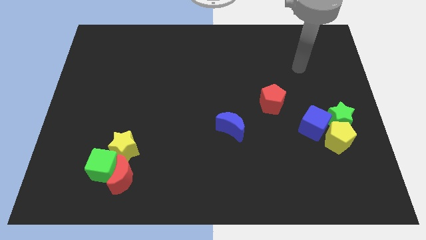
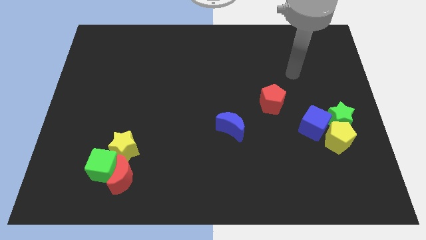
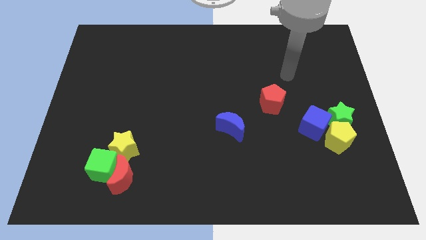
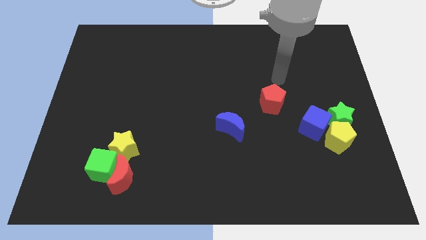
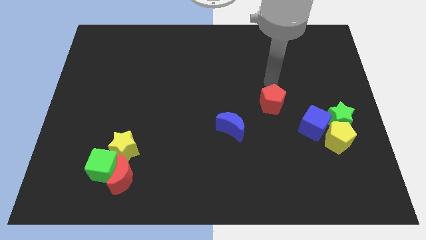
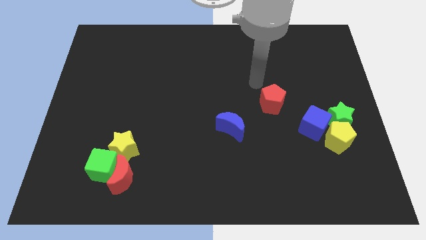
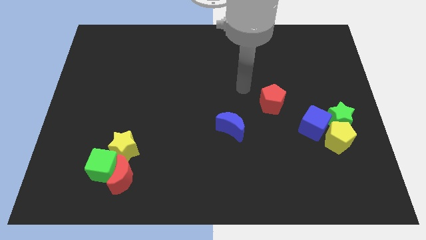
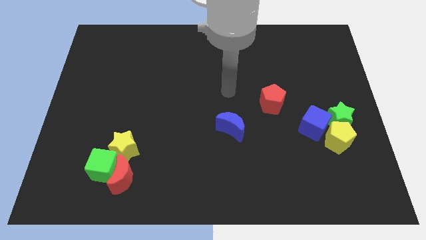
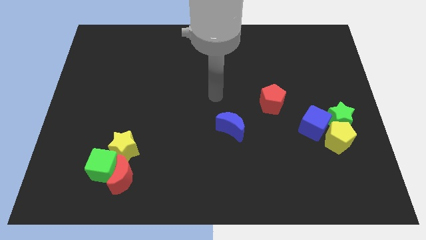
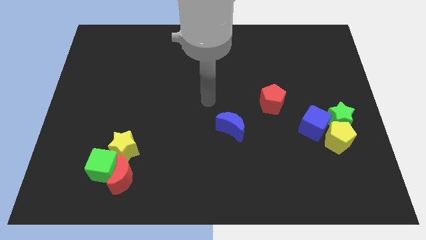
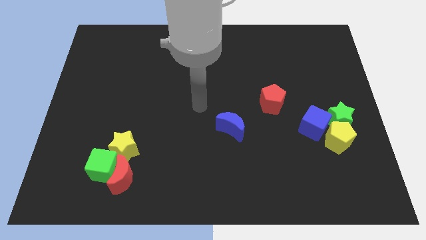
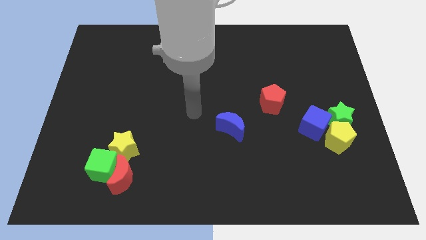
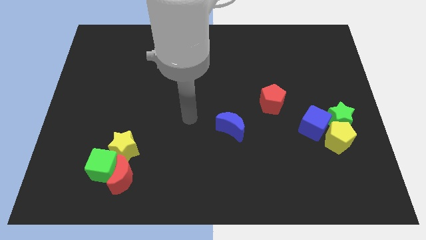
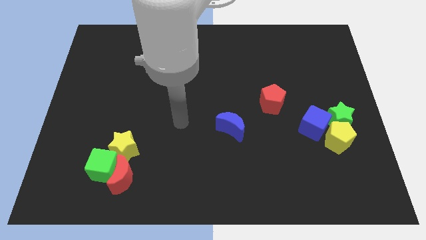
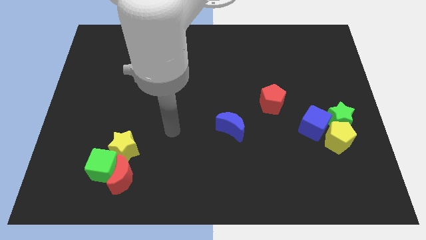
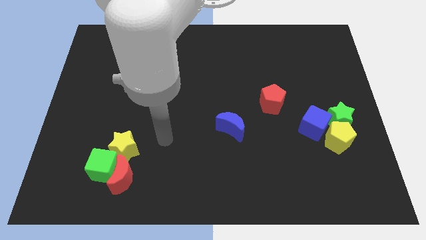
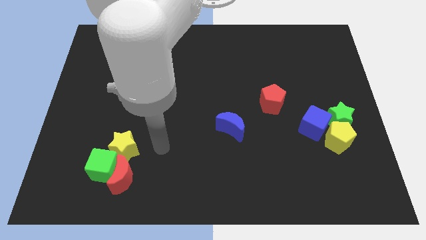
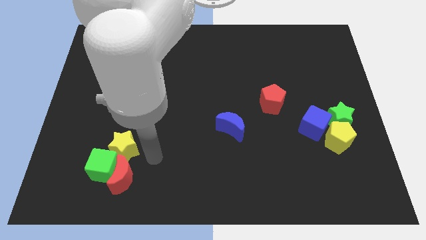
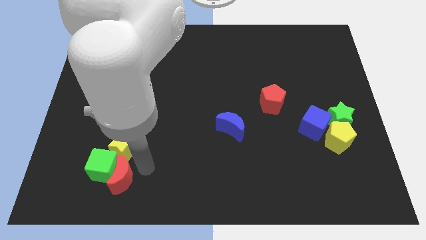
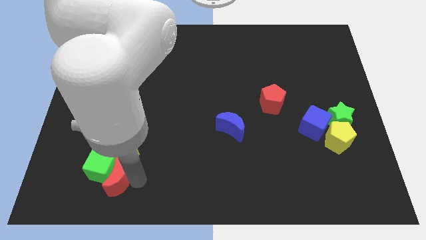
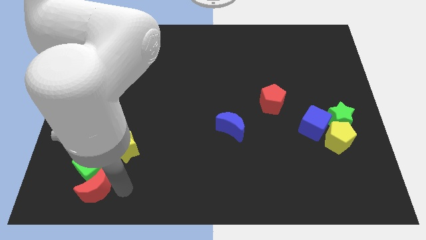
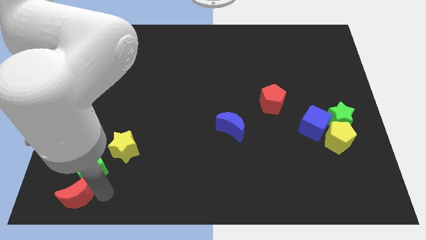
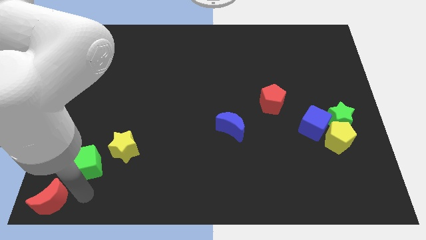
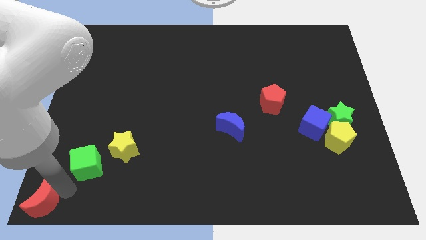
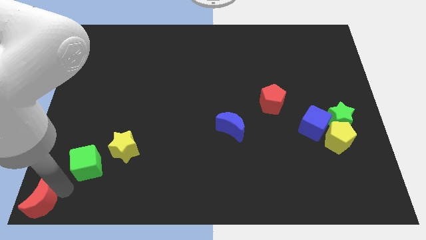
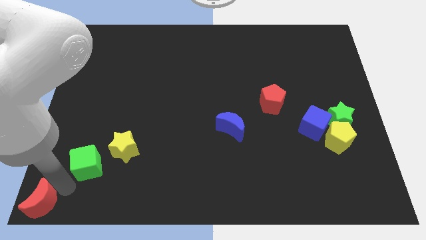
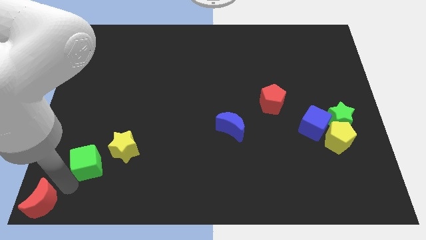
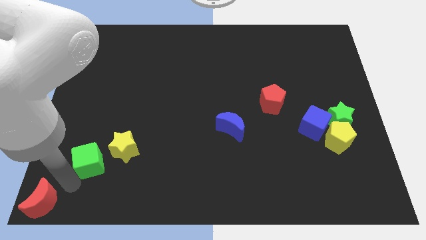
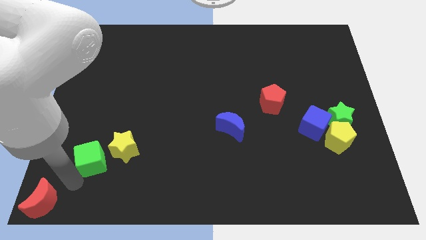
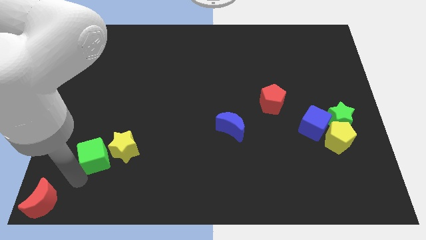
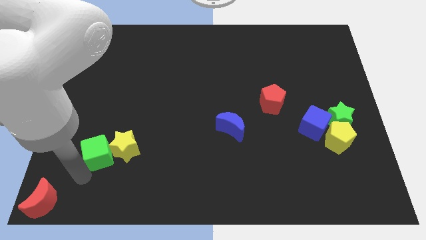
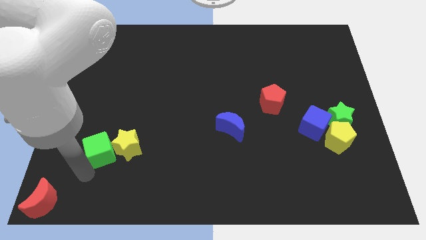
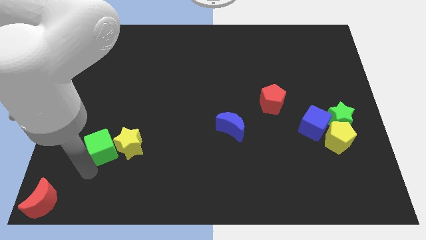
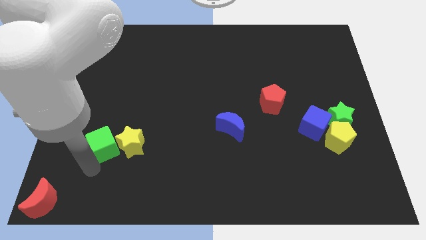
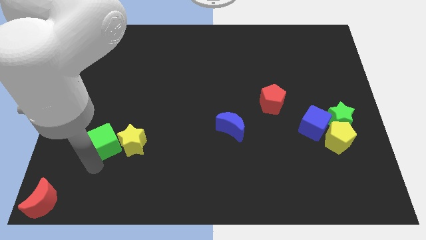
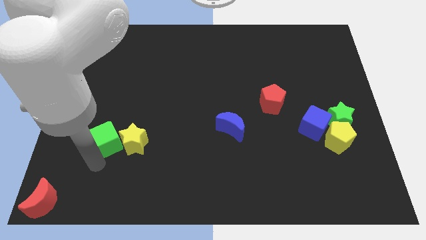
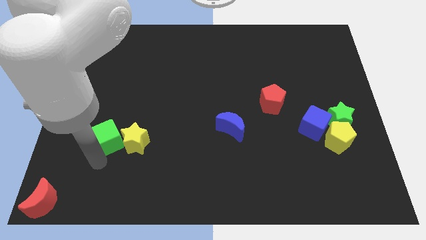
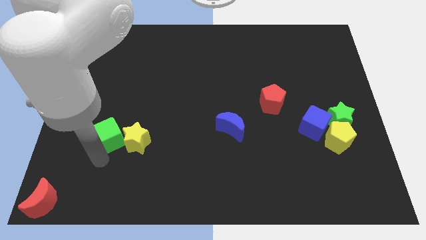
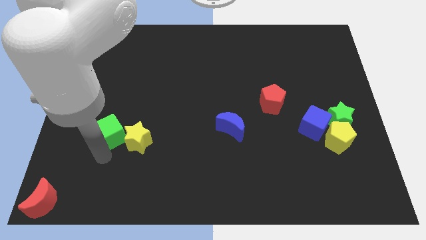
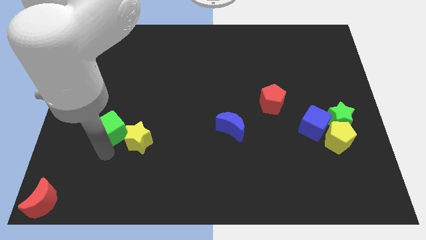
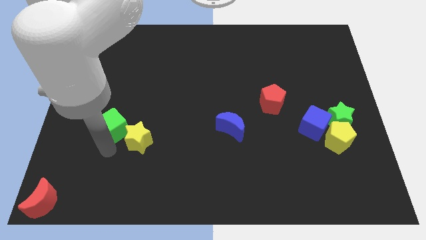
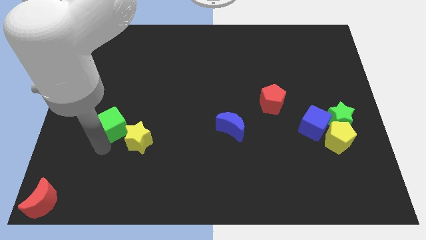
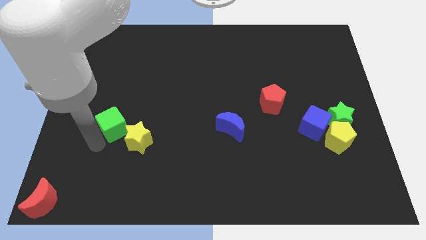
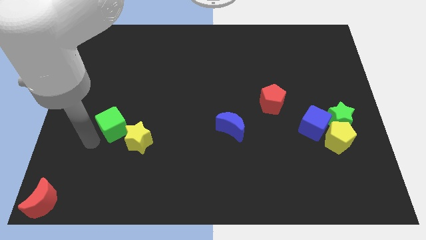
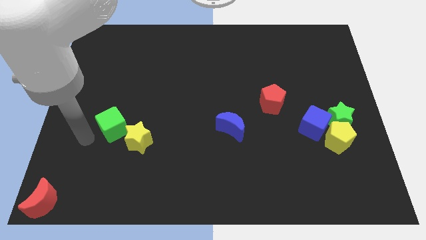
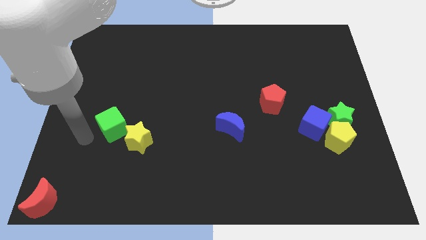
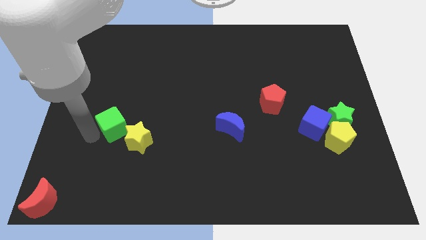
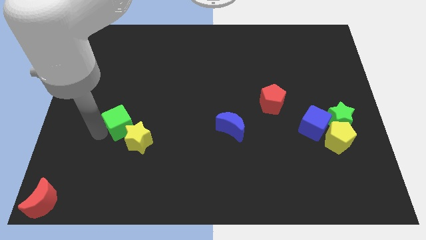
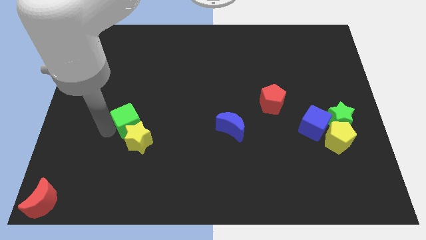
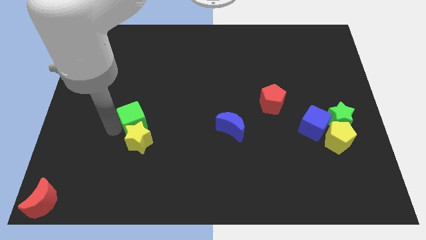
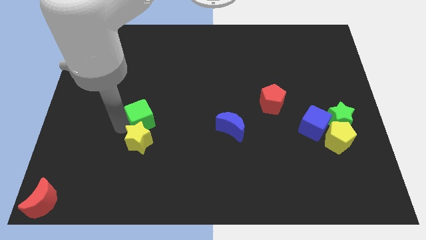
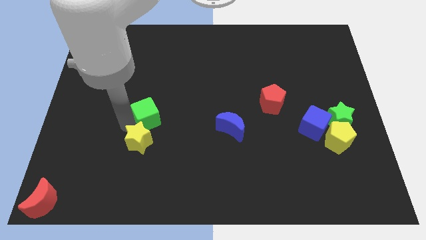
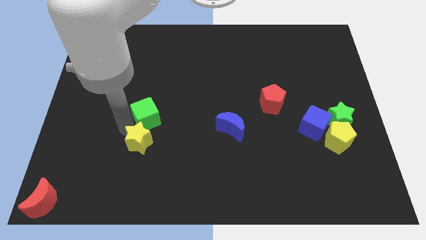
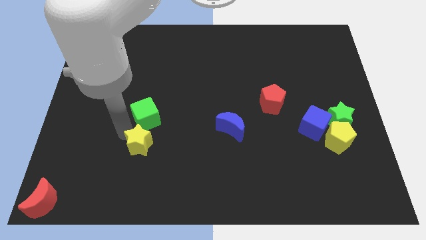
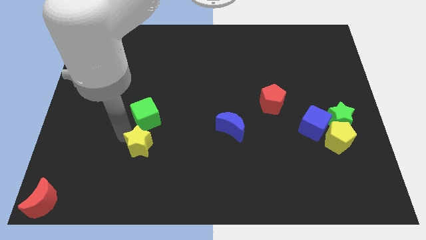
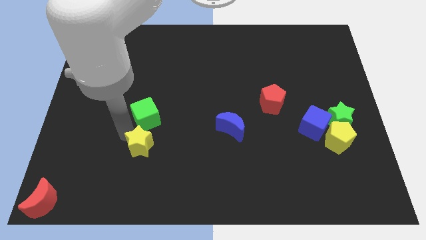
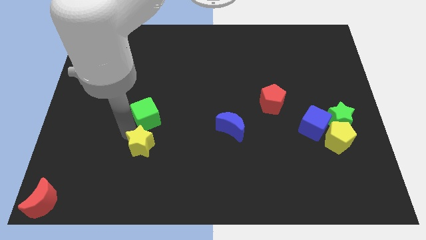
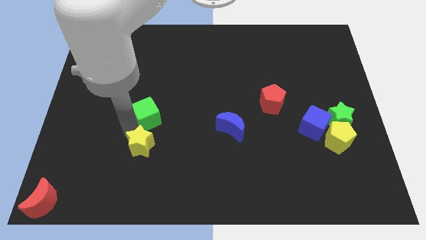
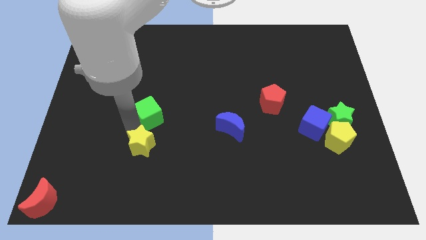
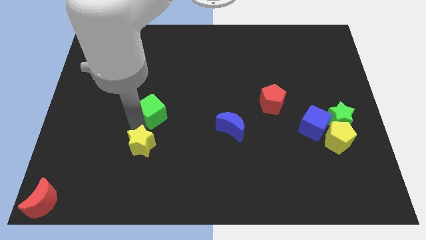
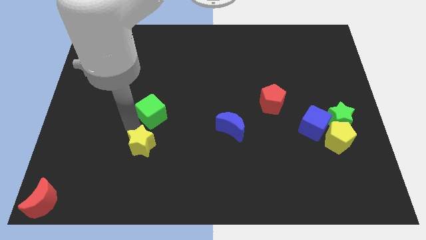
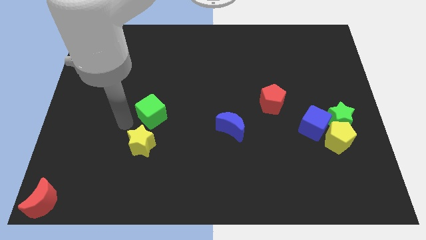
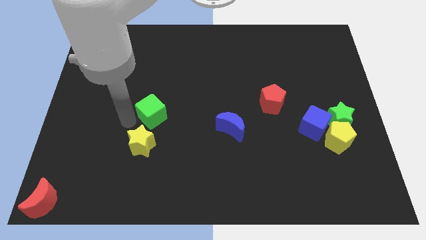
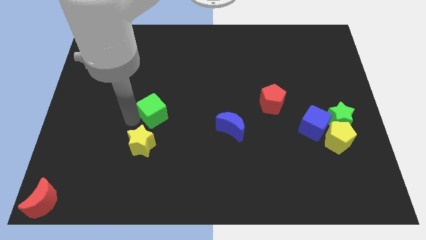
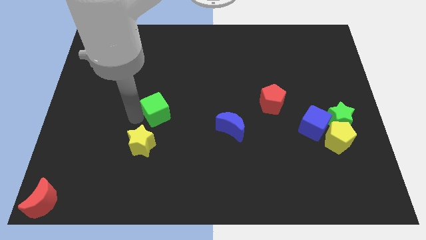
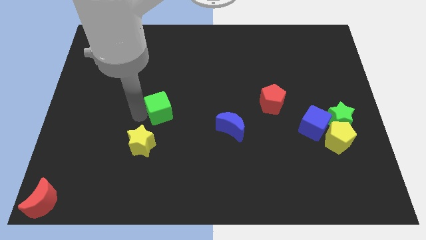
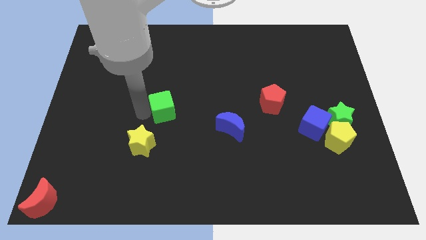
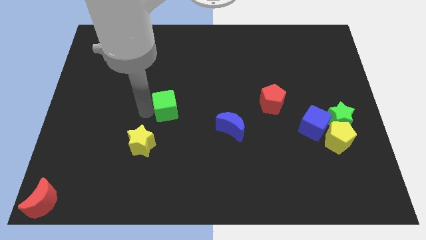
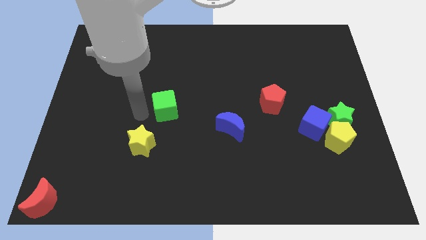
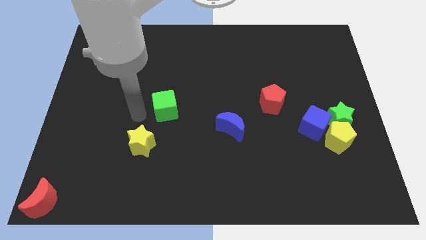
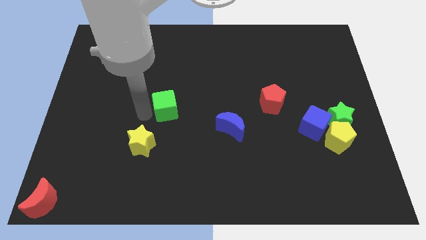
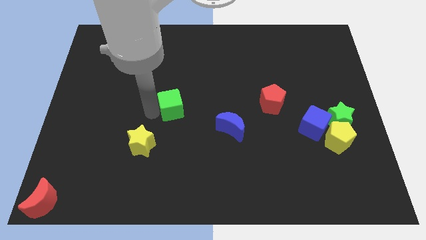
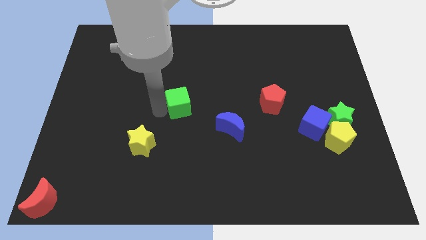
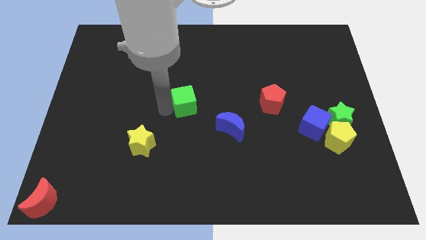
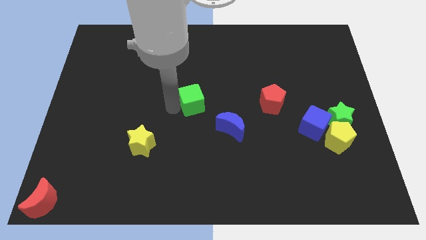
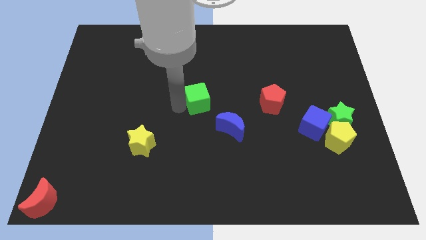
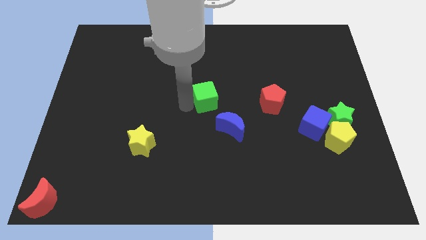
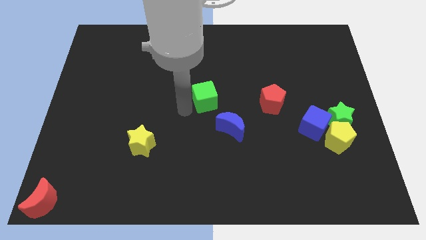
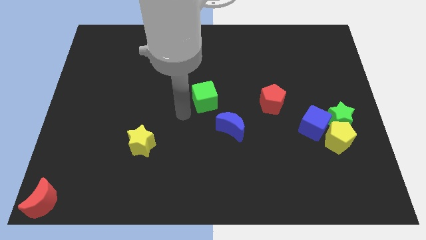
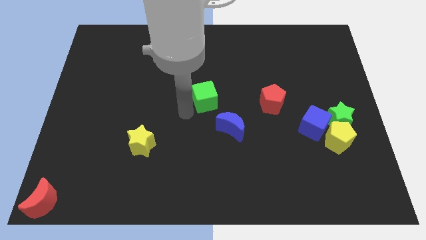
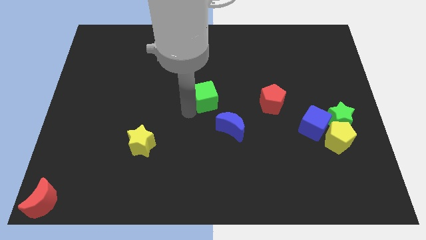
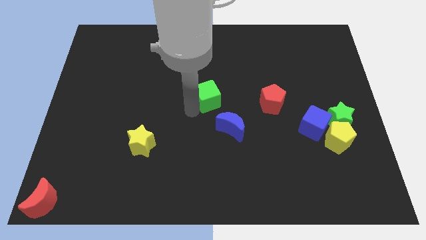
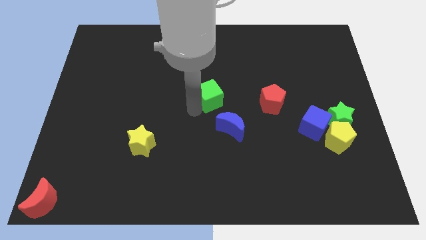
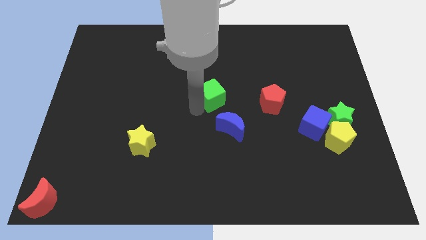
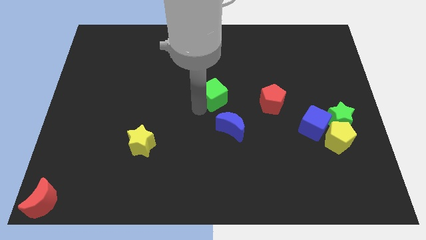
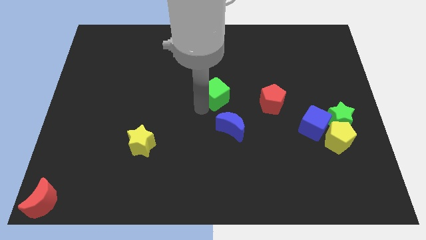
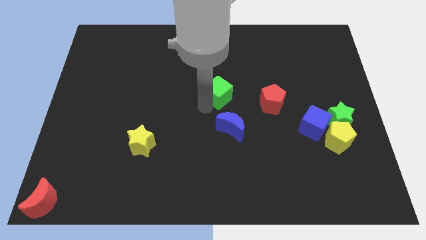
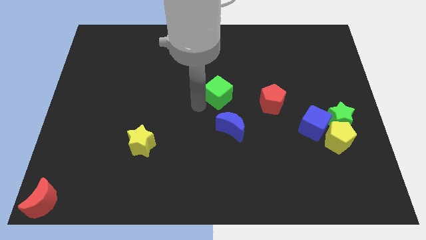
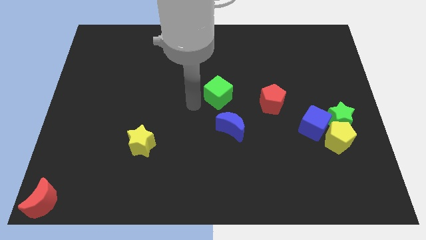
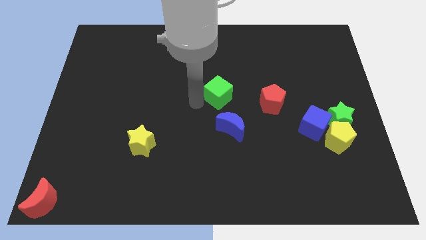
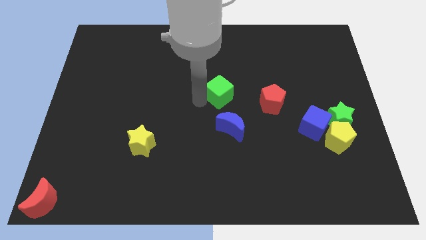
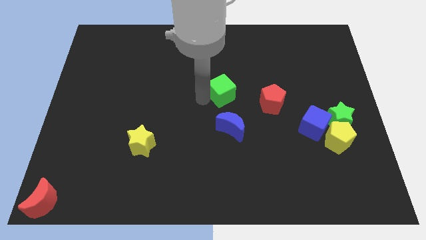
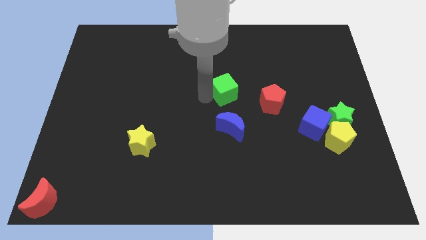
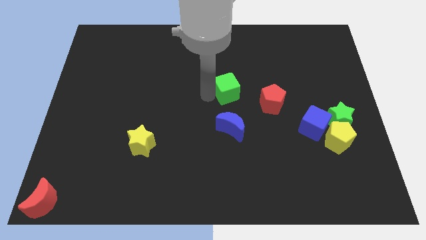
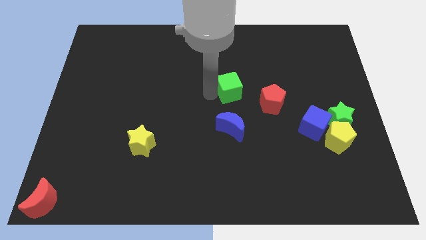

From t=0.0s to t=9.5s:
put the green cube to the top left of the red pentagon
